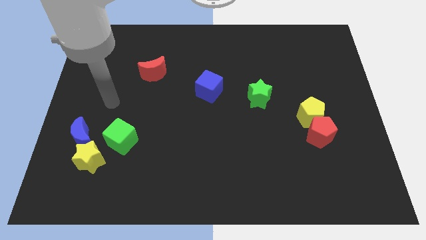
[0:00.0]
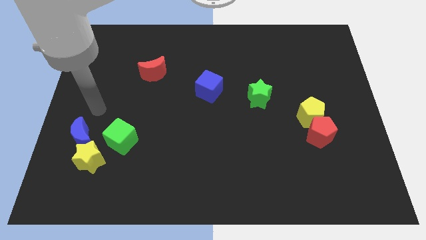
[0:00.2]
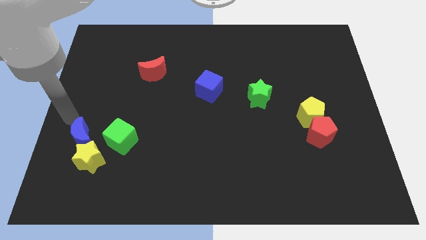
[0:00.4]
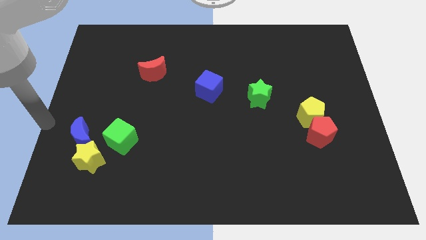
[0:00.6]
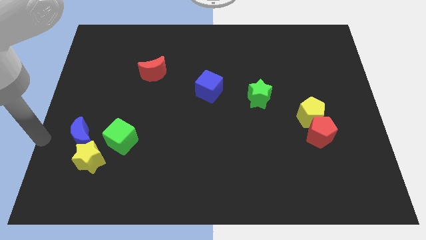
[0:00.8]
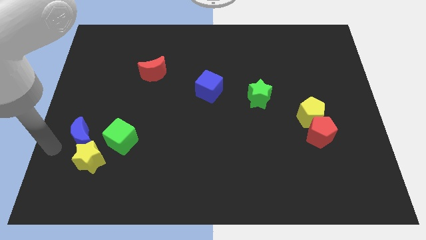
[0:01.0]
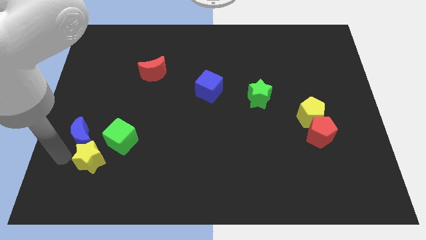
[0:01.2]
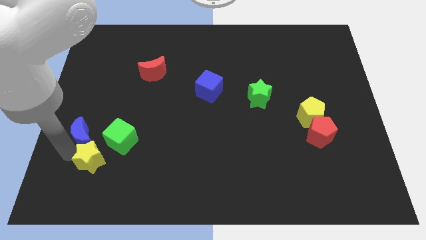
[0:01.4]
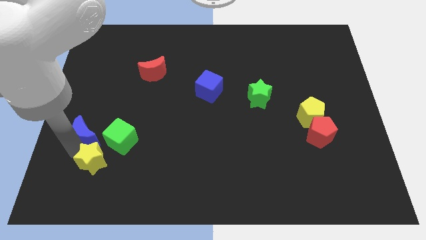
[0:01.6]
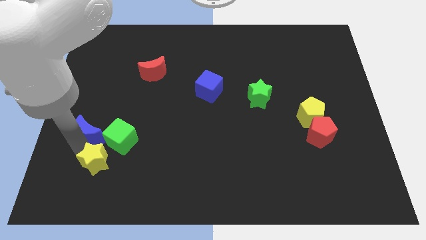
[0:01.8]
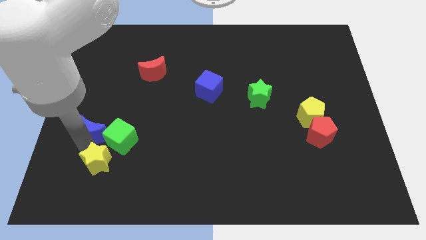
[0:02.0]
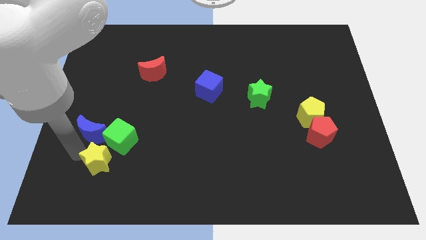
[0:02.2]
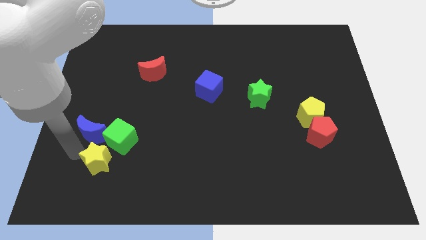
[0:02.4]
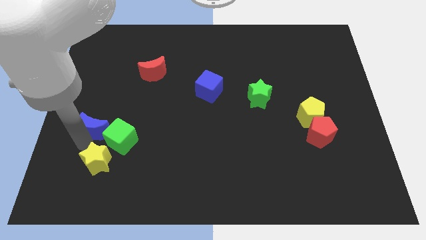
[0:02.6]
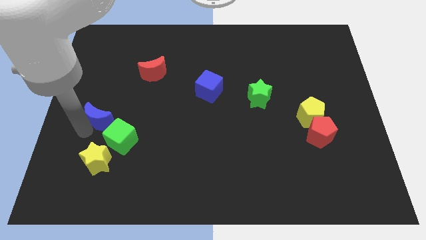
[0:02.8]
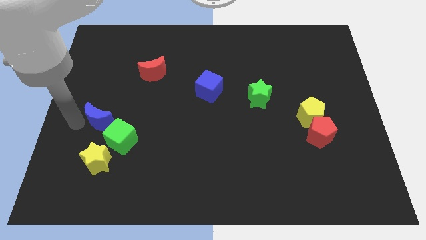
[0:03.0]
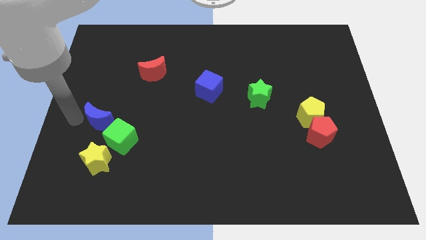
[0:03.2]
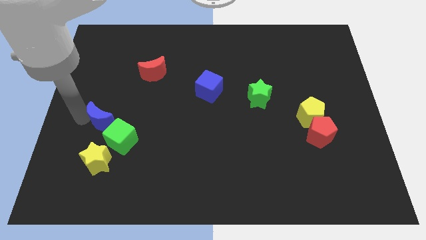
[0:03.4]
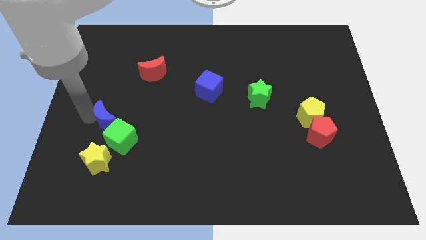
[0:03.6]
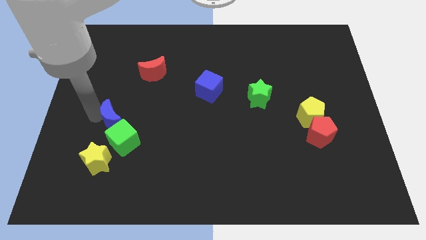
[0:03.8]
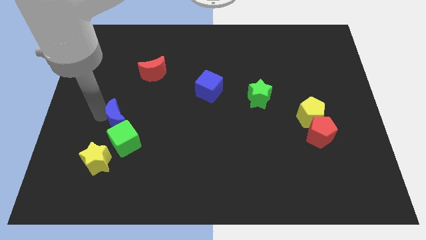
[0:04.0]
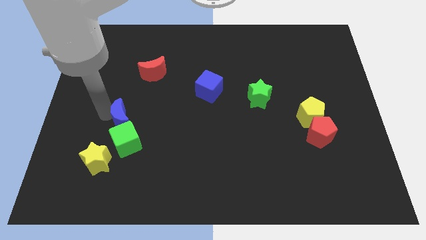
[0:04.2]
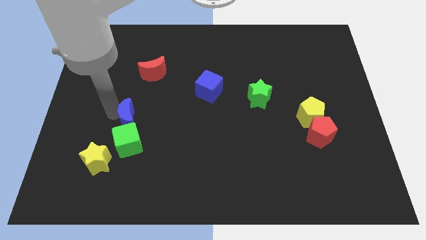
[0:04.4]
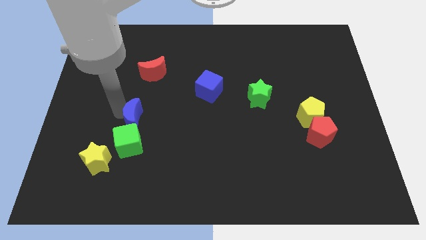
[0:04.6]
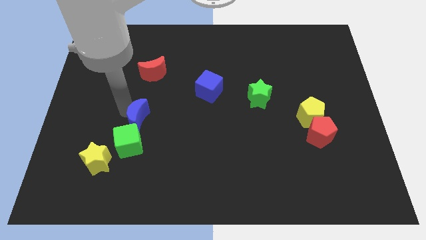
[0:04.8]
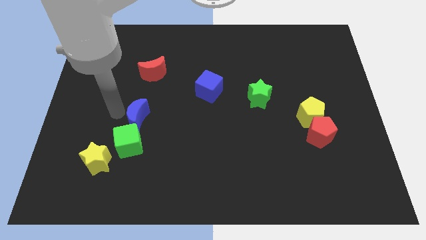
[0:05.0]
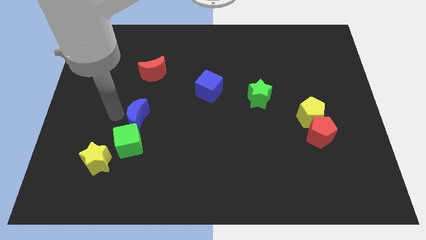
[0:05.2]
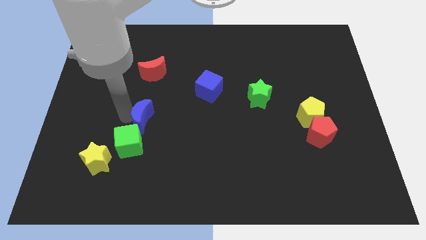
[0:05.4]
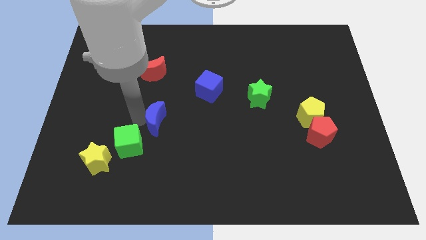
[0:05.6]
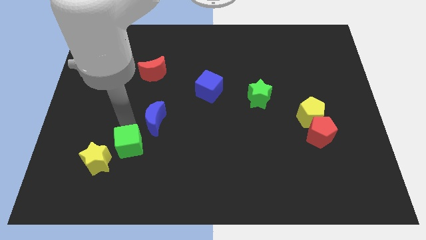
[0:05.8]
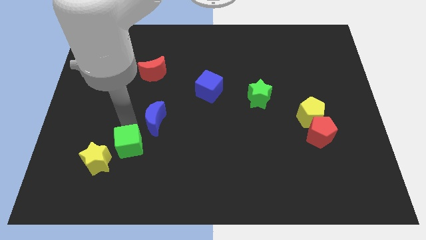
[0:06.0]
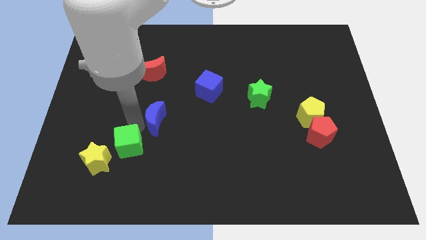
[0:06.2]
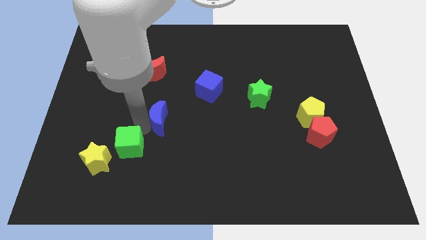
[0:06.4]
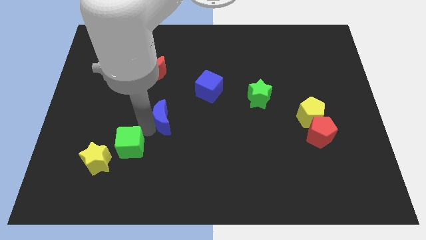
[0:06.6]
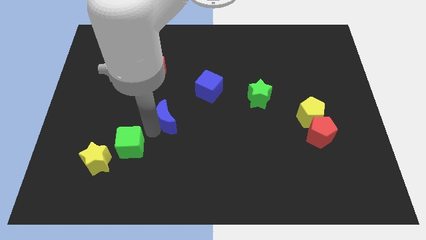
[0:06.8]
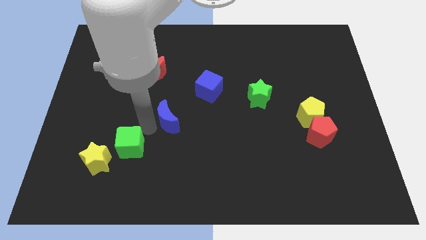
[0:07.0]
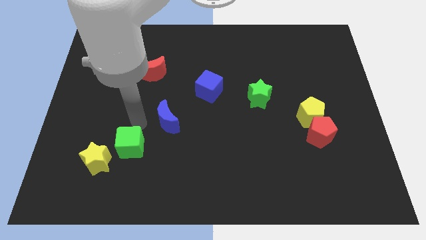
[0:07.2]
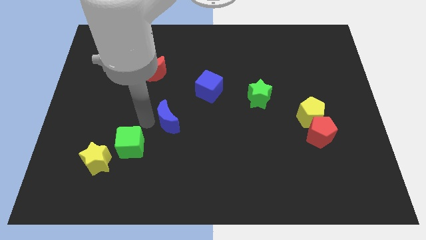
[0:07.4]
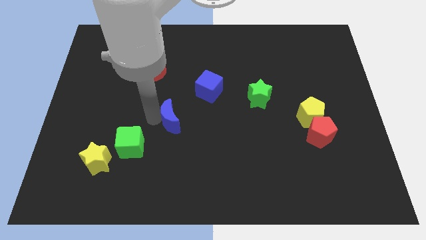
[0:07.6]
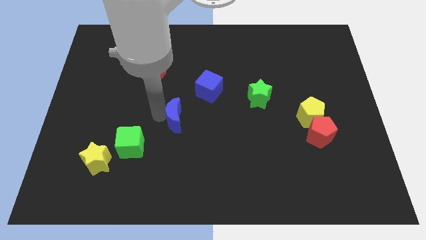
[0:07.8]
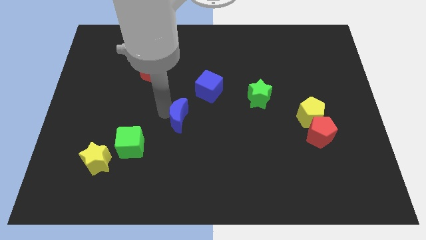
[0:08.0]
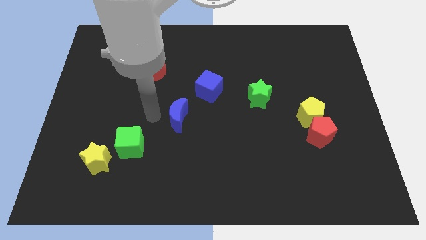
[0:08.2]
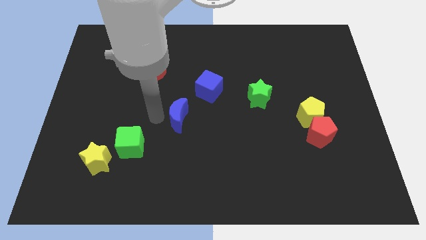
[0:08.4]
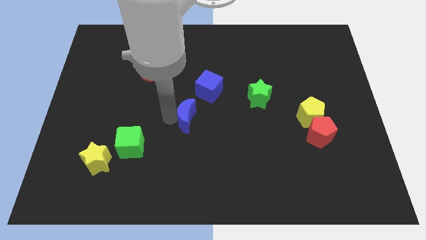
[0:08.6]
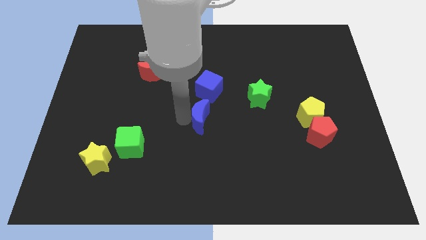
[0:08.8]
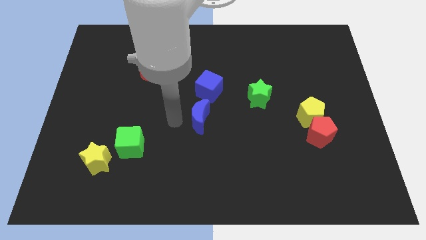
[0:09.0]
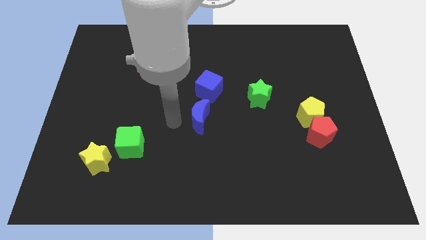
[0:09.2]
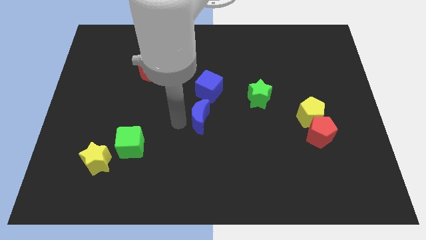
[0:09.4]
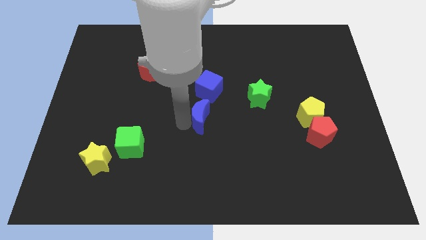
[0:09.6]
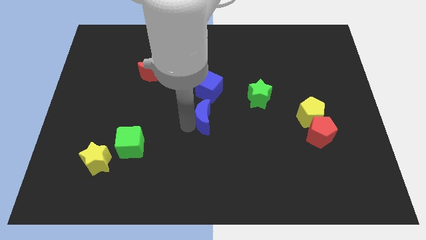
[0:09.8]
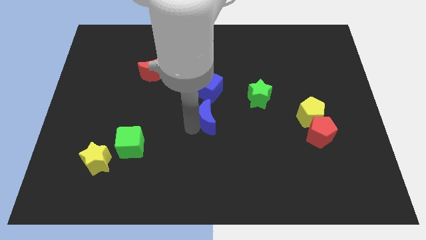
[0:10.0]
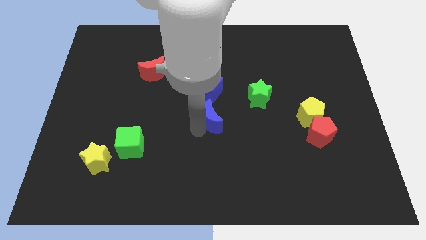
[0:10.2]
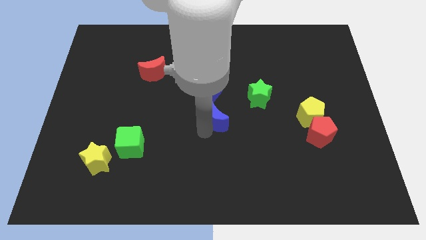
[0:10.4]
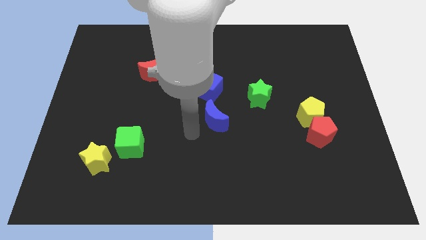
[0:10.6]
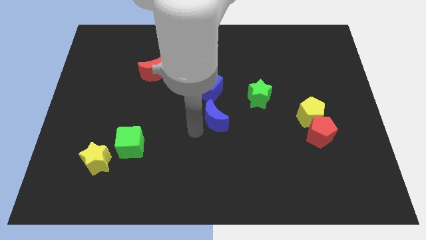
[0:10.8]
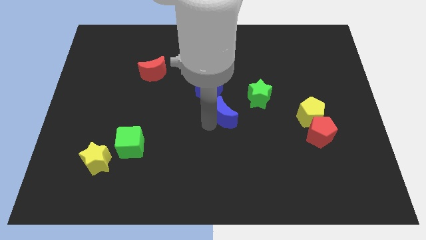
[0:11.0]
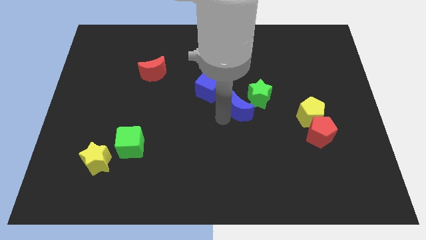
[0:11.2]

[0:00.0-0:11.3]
put the blue moon close to the green star

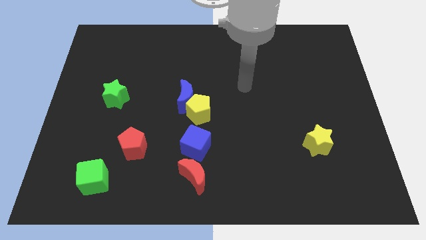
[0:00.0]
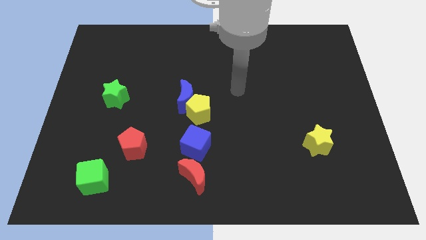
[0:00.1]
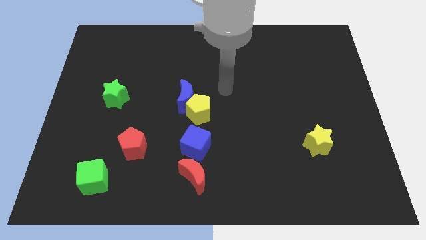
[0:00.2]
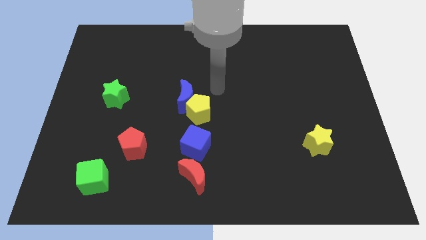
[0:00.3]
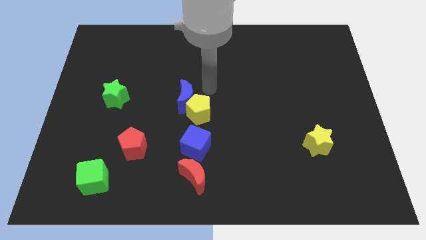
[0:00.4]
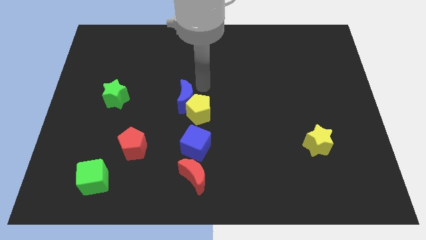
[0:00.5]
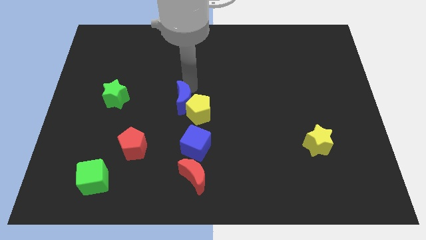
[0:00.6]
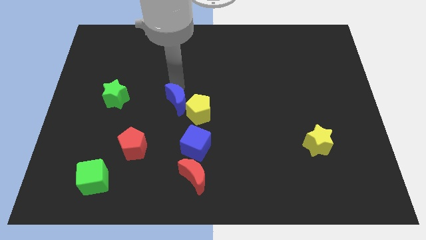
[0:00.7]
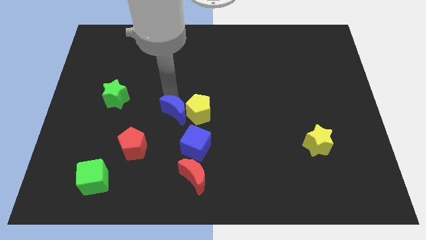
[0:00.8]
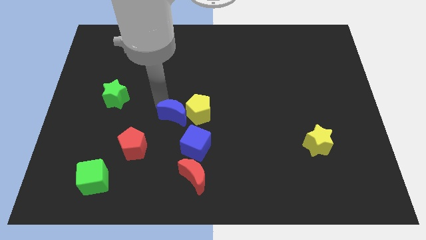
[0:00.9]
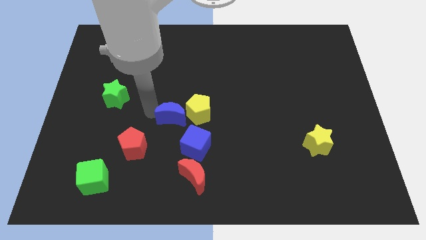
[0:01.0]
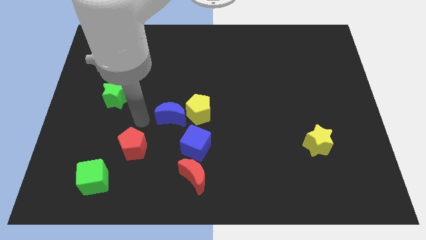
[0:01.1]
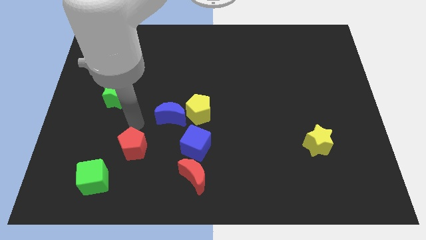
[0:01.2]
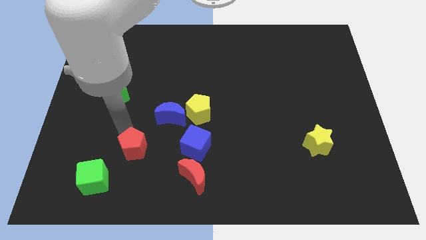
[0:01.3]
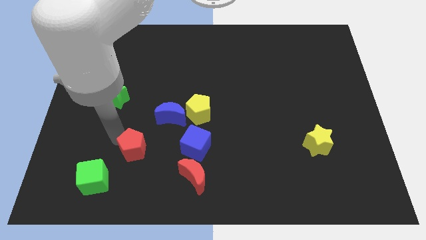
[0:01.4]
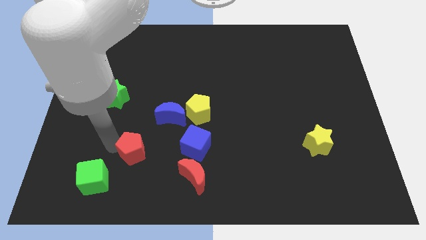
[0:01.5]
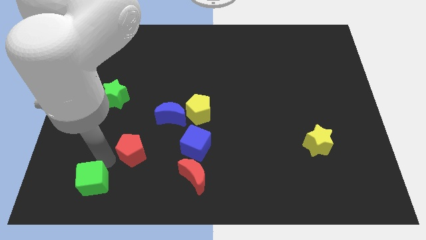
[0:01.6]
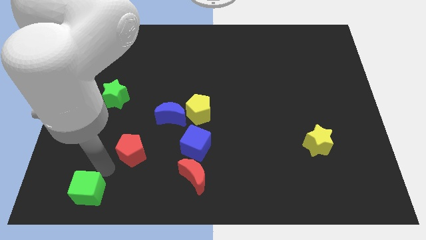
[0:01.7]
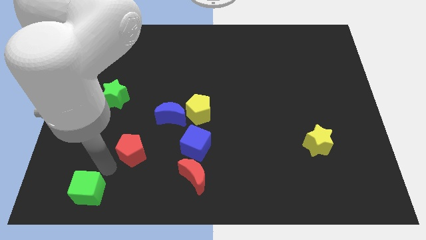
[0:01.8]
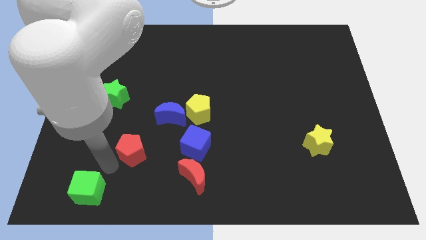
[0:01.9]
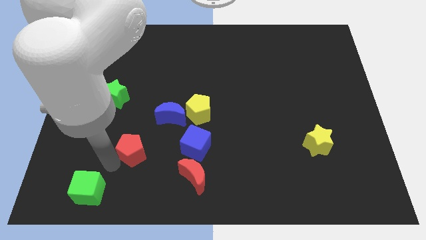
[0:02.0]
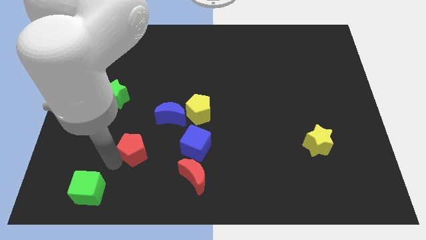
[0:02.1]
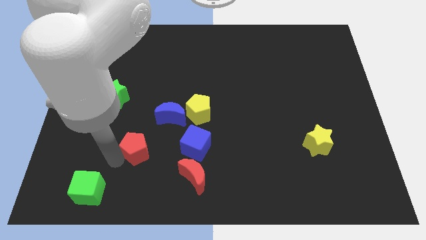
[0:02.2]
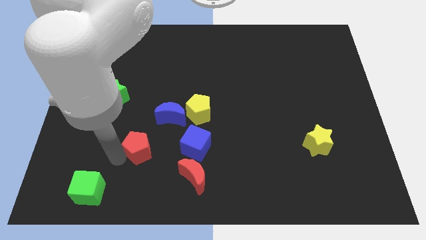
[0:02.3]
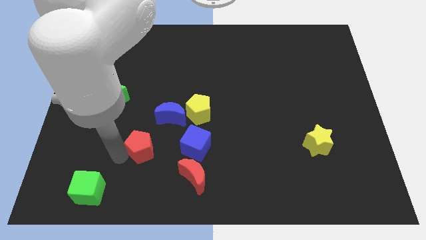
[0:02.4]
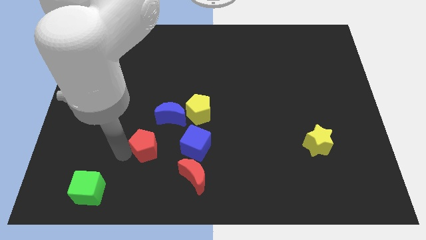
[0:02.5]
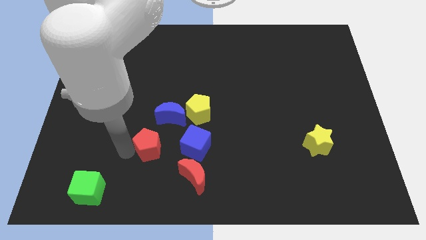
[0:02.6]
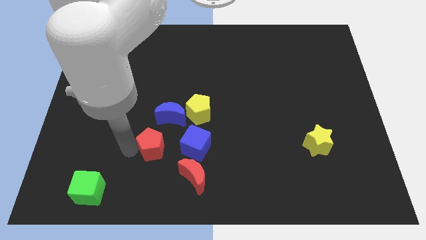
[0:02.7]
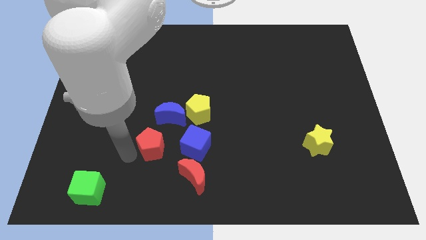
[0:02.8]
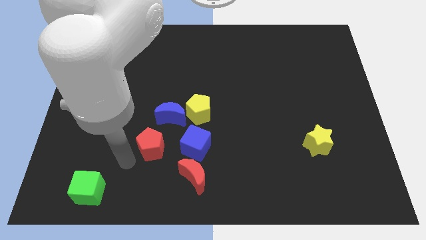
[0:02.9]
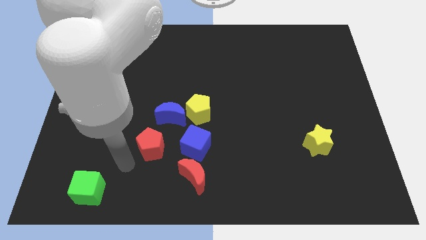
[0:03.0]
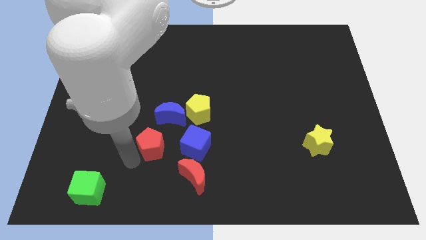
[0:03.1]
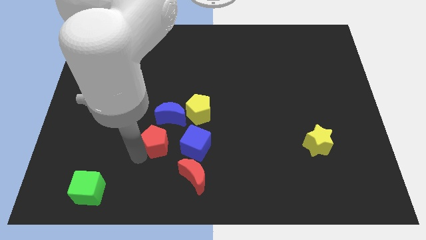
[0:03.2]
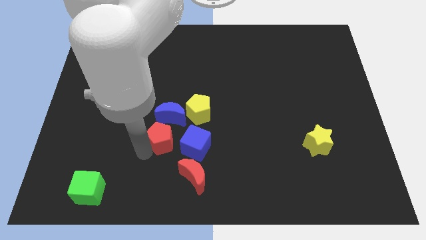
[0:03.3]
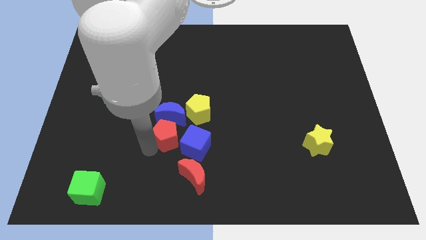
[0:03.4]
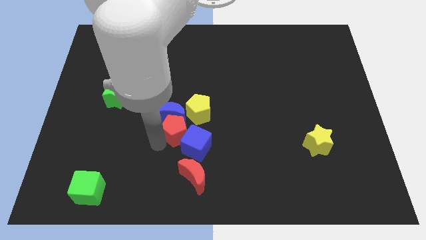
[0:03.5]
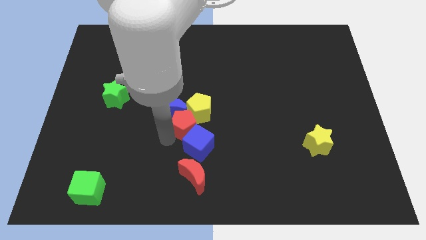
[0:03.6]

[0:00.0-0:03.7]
slide the red pentagon next to the yellow pentagon
